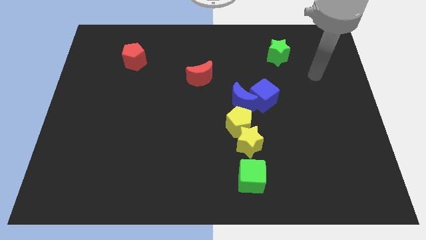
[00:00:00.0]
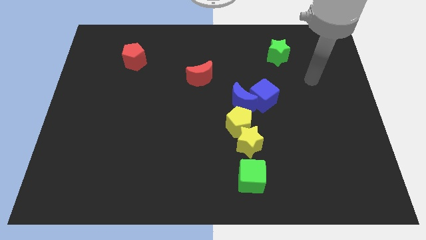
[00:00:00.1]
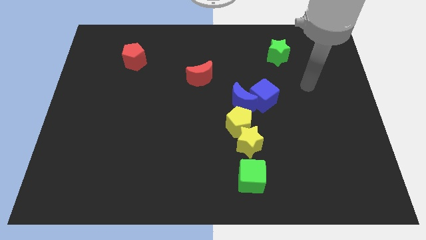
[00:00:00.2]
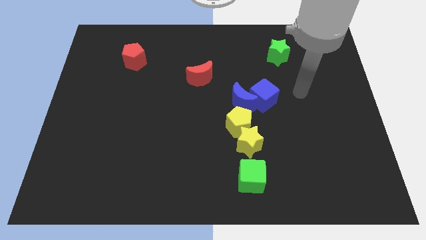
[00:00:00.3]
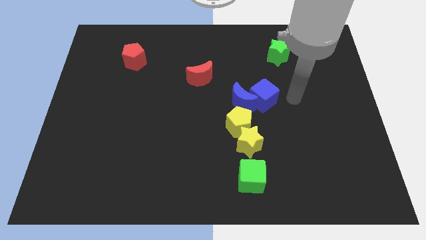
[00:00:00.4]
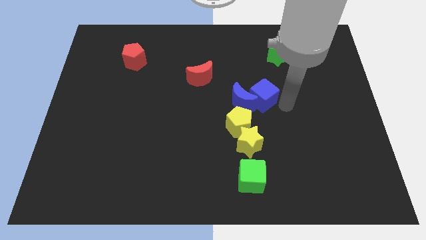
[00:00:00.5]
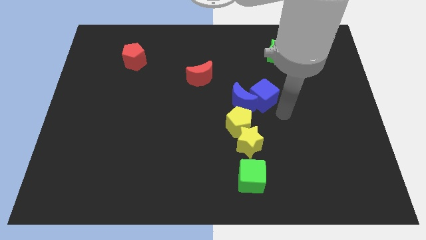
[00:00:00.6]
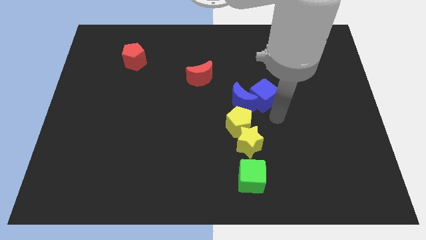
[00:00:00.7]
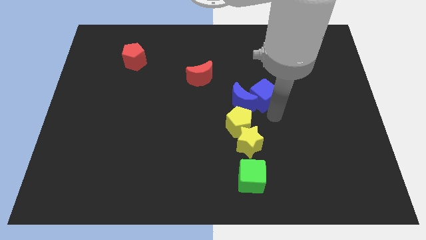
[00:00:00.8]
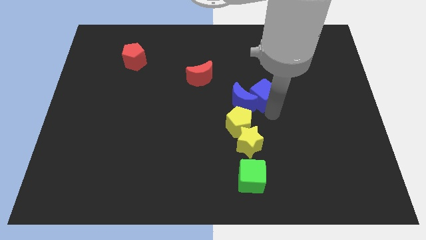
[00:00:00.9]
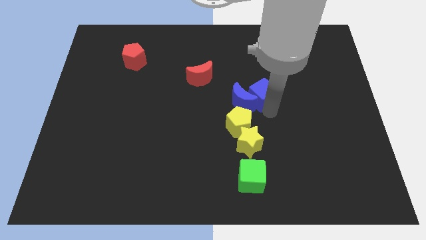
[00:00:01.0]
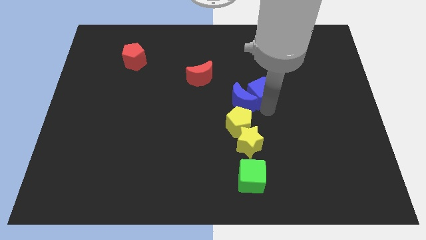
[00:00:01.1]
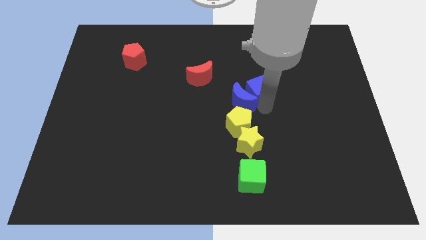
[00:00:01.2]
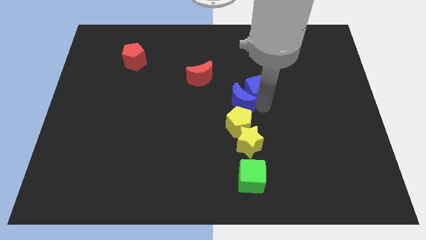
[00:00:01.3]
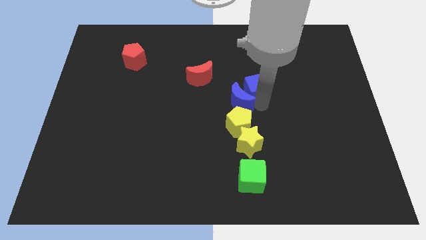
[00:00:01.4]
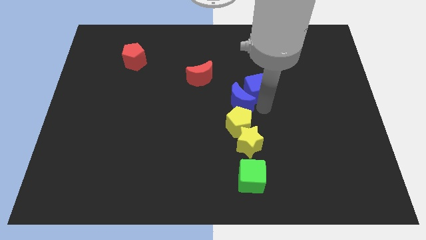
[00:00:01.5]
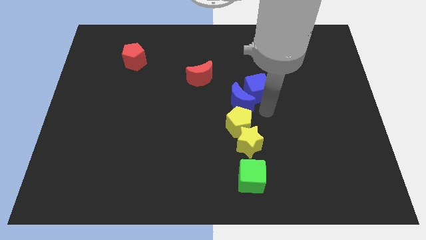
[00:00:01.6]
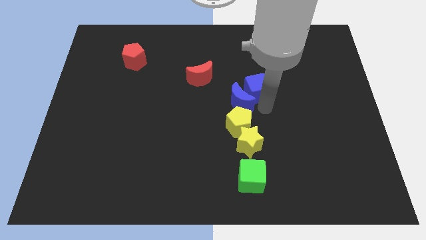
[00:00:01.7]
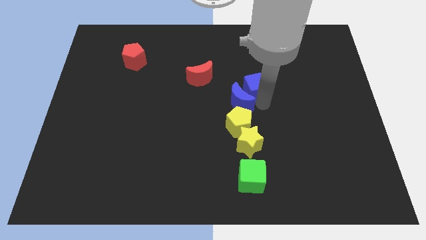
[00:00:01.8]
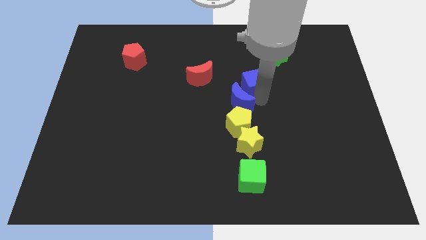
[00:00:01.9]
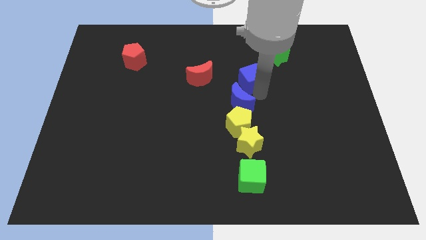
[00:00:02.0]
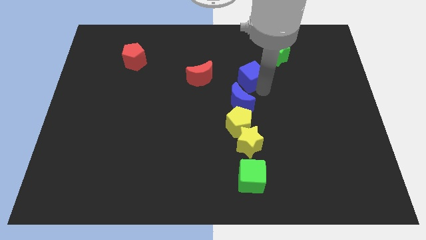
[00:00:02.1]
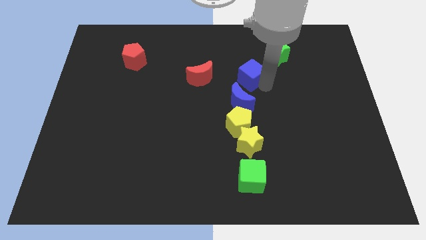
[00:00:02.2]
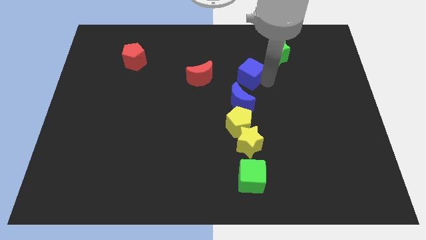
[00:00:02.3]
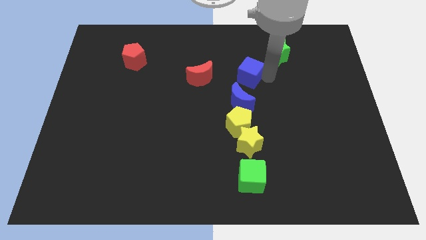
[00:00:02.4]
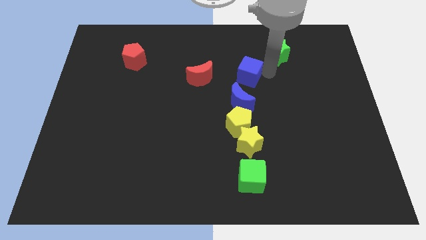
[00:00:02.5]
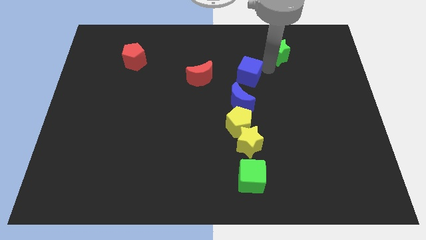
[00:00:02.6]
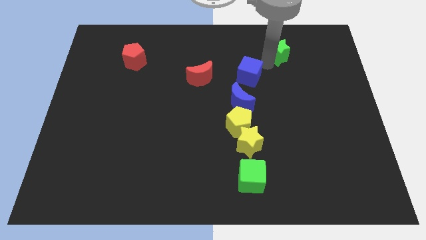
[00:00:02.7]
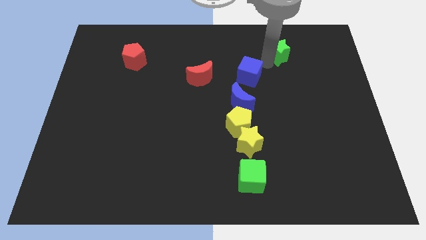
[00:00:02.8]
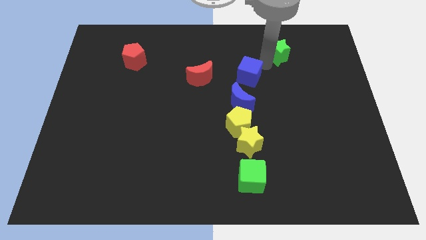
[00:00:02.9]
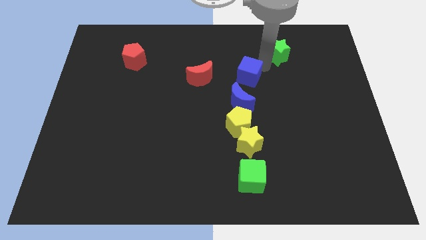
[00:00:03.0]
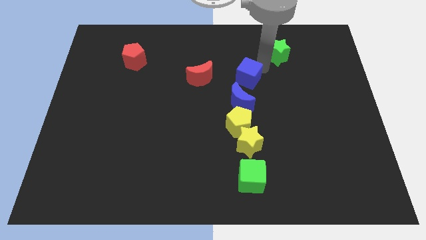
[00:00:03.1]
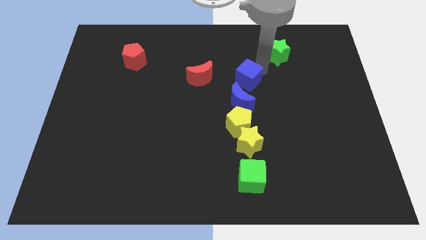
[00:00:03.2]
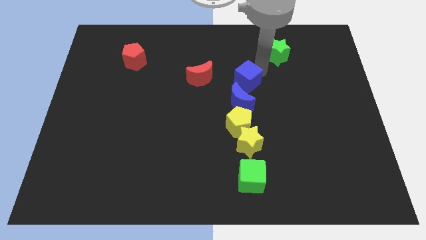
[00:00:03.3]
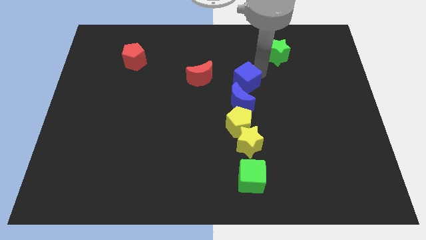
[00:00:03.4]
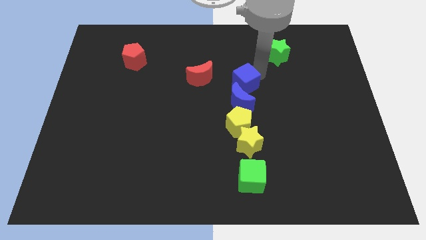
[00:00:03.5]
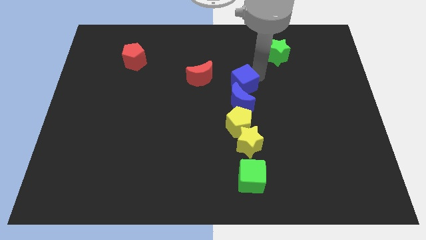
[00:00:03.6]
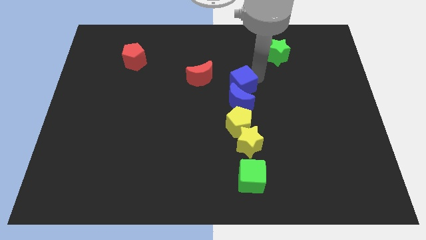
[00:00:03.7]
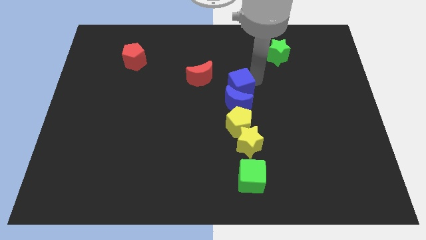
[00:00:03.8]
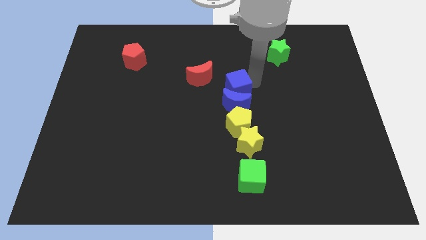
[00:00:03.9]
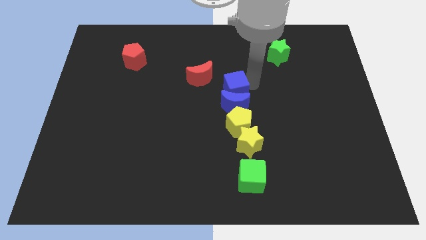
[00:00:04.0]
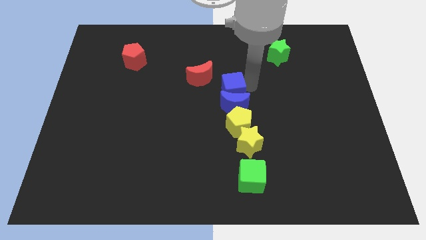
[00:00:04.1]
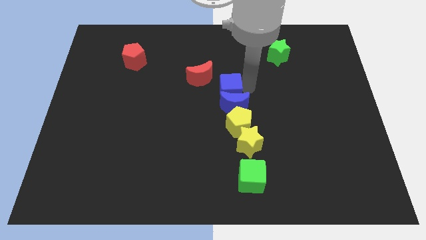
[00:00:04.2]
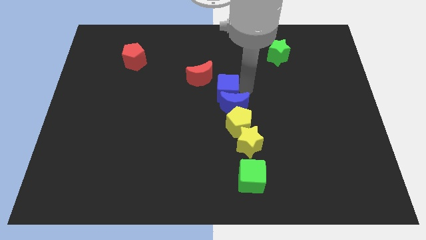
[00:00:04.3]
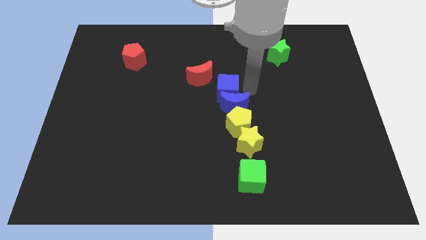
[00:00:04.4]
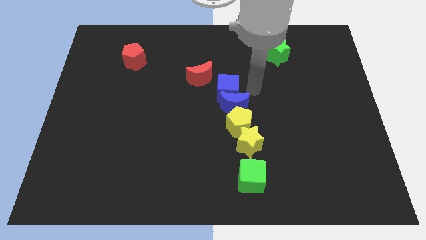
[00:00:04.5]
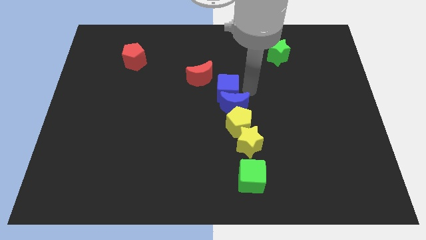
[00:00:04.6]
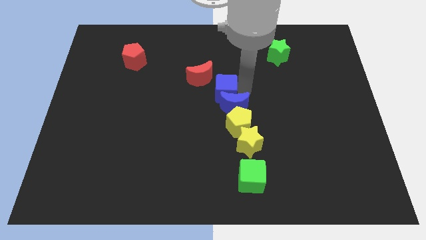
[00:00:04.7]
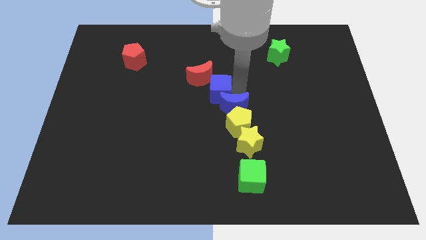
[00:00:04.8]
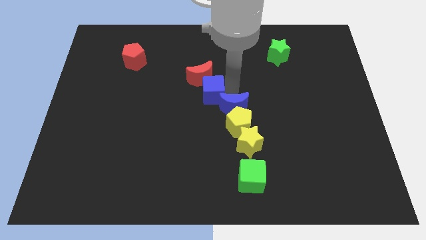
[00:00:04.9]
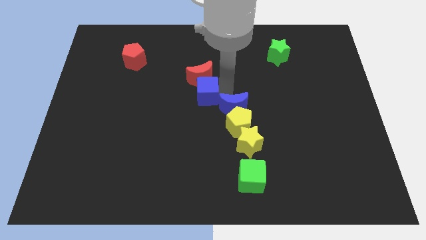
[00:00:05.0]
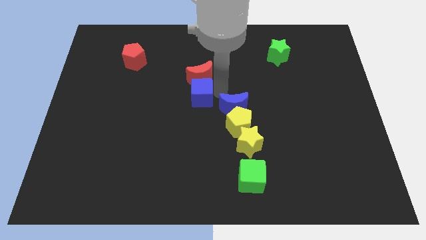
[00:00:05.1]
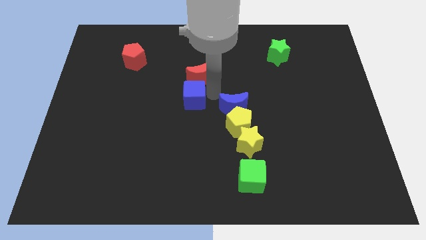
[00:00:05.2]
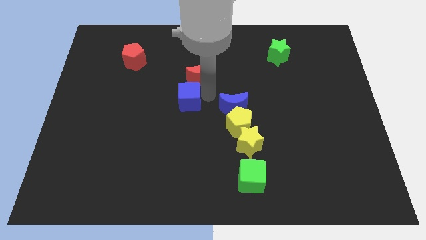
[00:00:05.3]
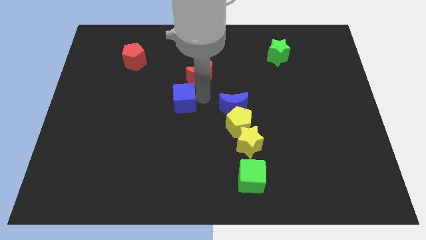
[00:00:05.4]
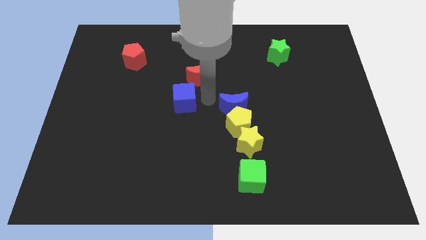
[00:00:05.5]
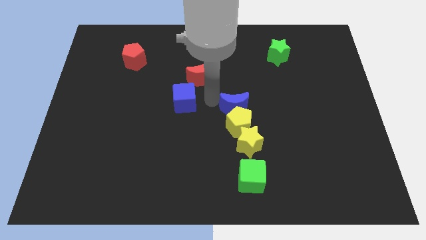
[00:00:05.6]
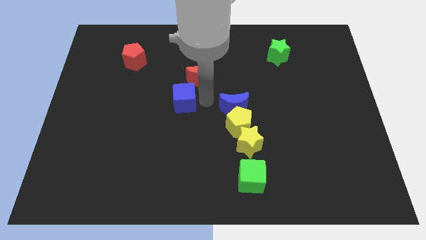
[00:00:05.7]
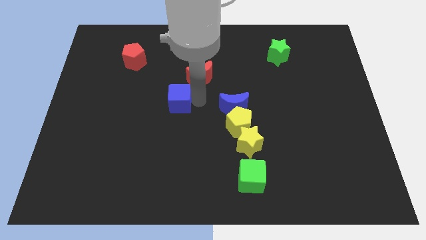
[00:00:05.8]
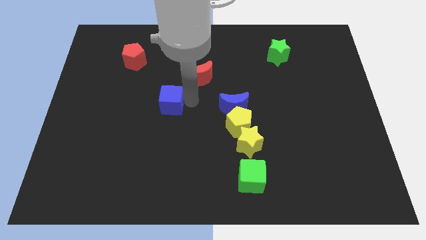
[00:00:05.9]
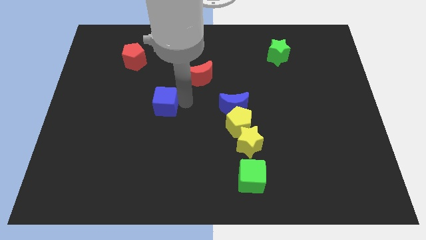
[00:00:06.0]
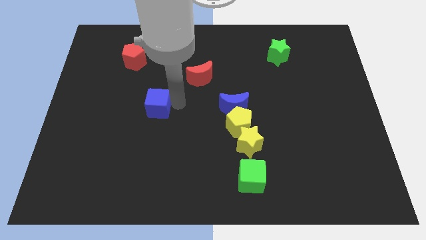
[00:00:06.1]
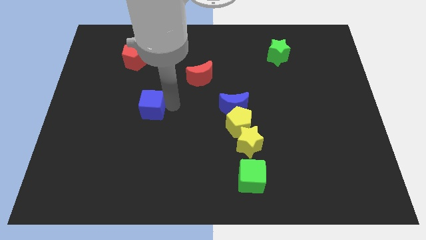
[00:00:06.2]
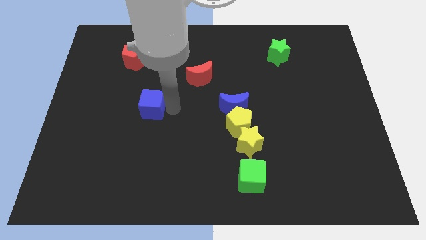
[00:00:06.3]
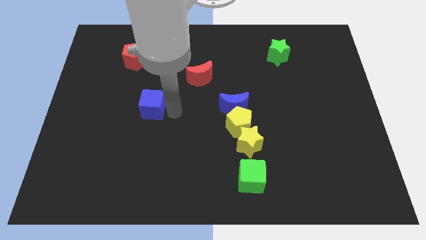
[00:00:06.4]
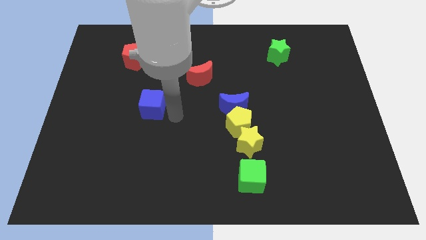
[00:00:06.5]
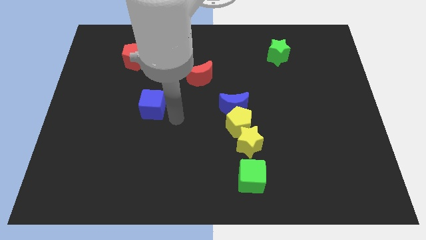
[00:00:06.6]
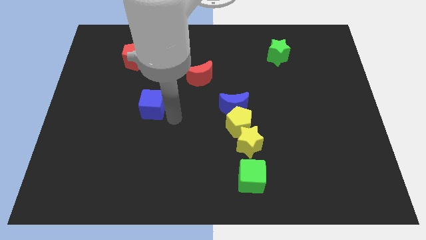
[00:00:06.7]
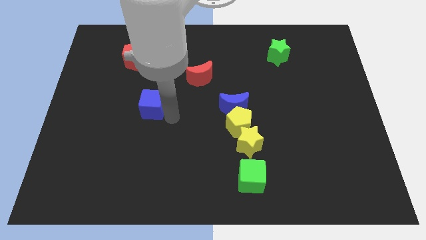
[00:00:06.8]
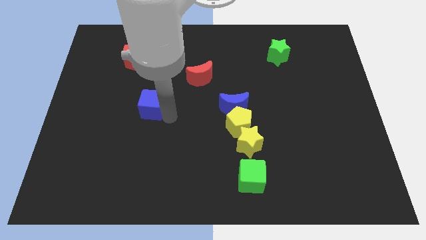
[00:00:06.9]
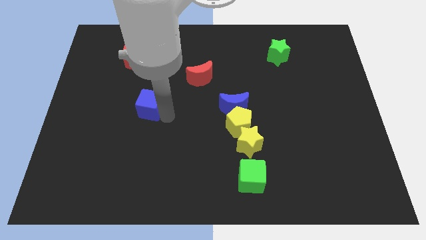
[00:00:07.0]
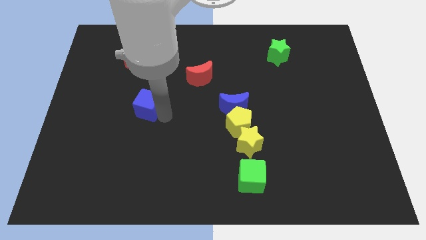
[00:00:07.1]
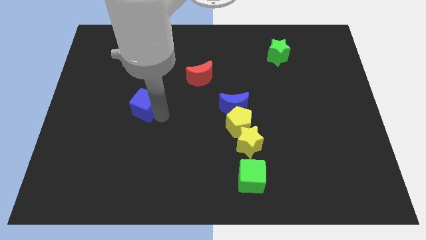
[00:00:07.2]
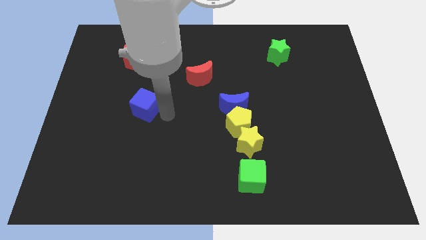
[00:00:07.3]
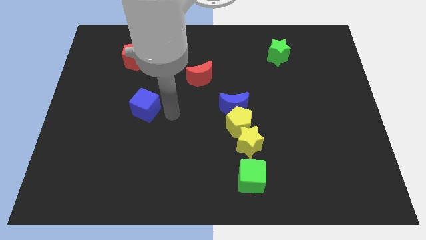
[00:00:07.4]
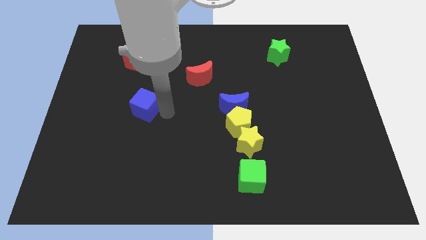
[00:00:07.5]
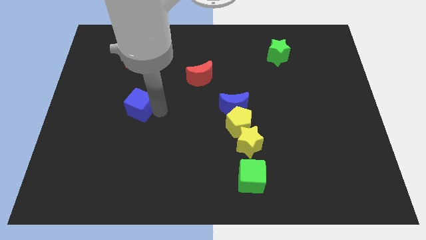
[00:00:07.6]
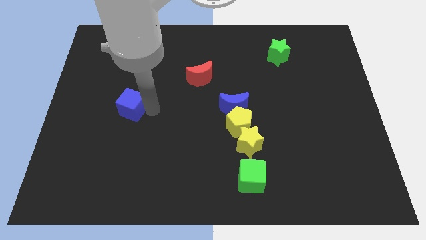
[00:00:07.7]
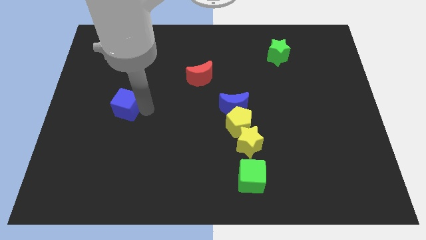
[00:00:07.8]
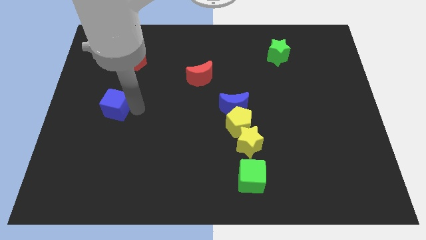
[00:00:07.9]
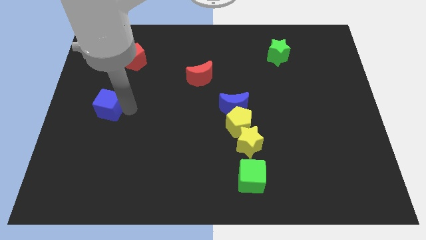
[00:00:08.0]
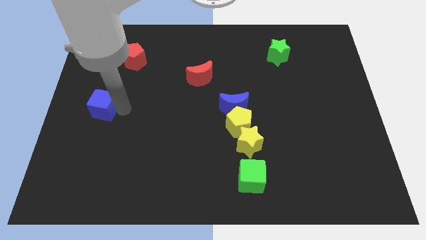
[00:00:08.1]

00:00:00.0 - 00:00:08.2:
move the blue cube to the center left
